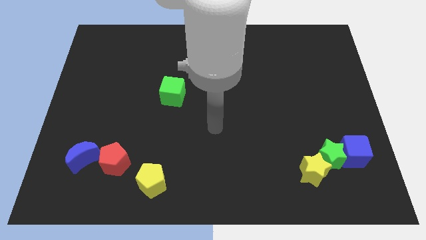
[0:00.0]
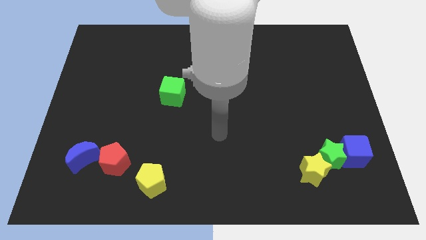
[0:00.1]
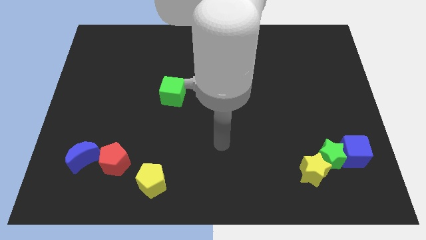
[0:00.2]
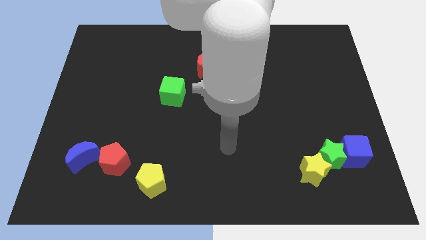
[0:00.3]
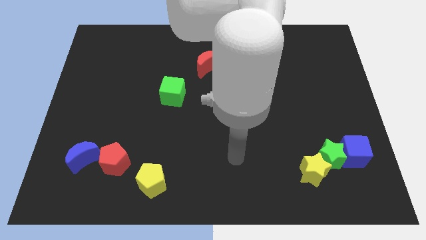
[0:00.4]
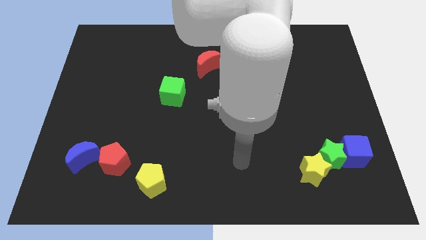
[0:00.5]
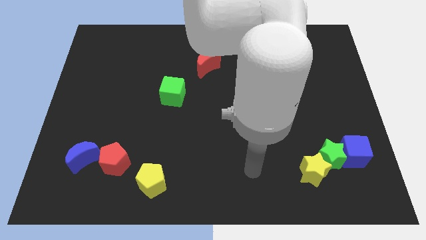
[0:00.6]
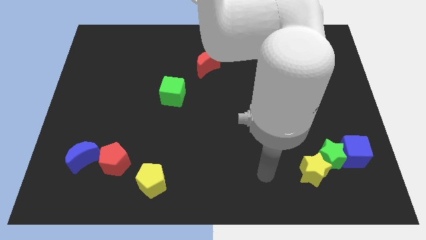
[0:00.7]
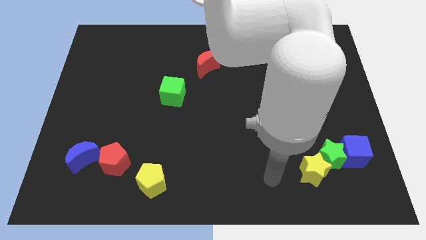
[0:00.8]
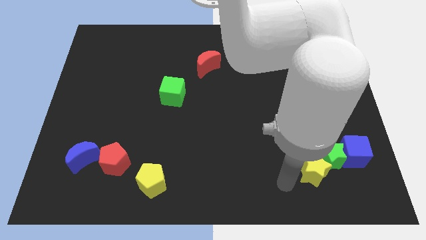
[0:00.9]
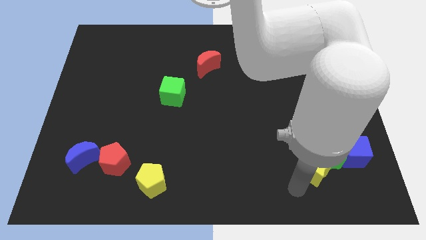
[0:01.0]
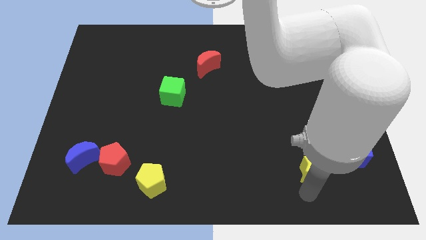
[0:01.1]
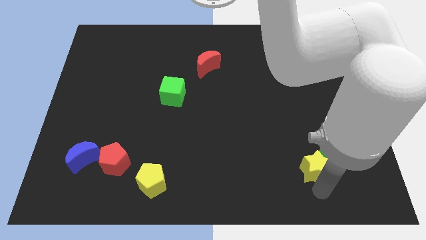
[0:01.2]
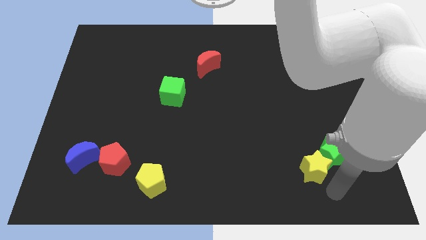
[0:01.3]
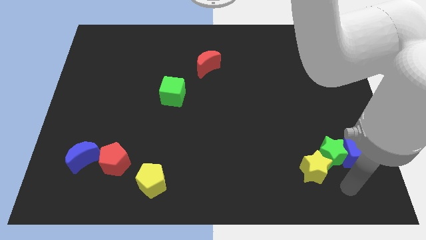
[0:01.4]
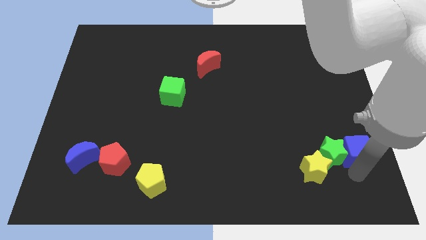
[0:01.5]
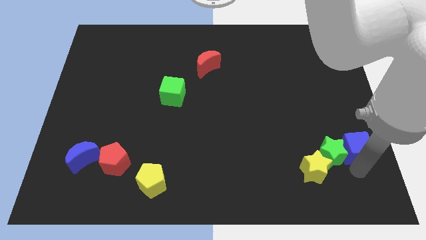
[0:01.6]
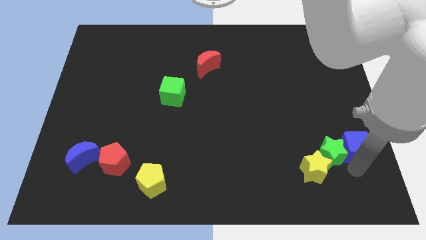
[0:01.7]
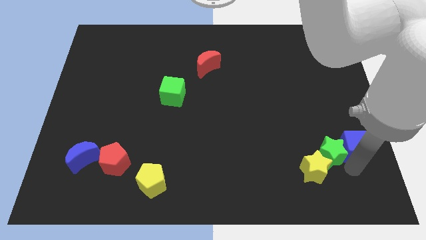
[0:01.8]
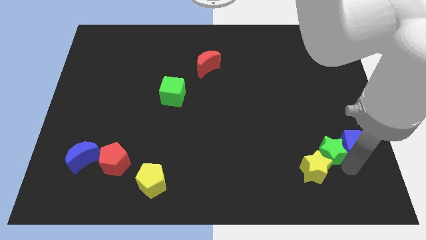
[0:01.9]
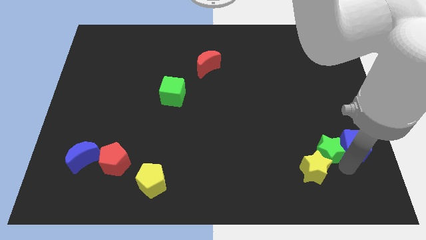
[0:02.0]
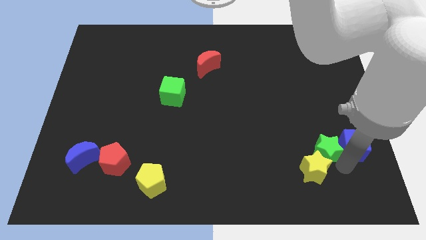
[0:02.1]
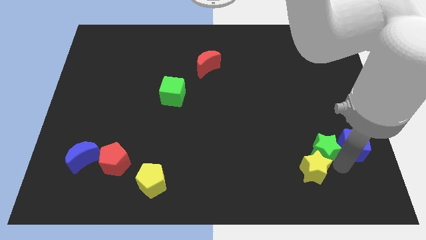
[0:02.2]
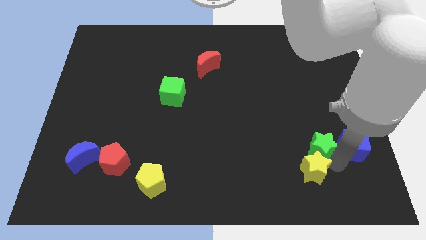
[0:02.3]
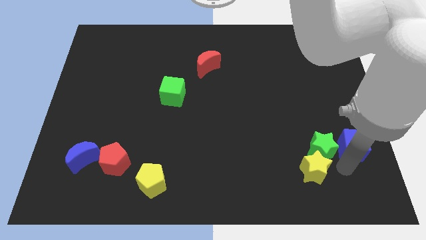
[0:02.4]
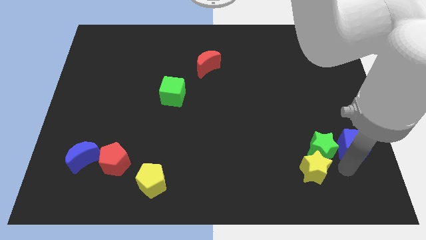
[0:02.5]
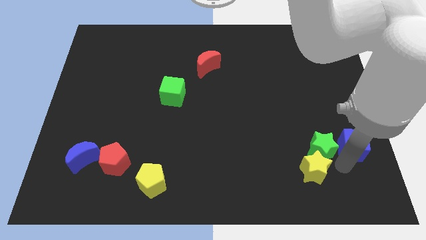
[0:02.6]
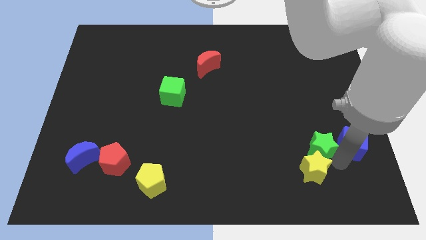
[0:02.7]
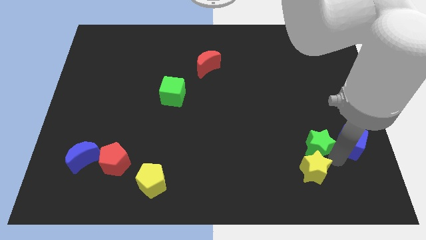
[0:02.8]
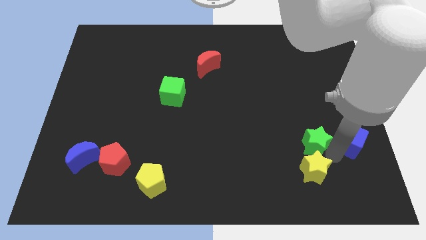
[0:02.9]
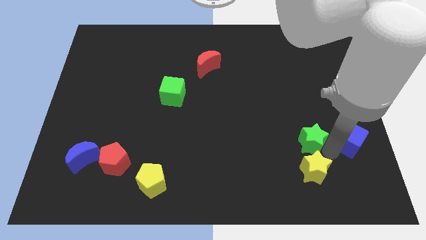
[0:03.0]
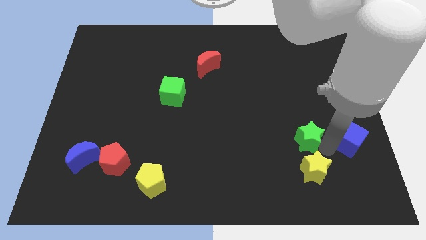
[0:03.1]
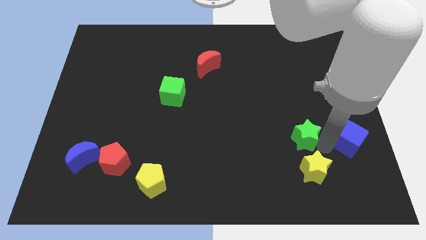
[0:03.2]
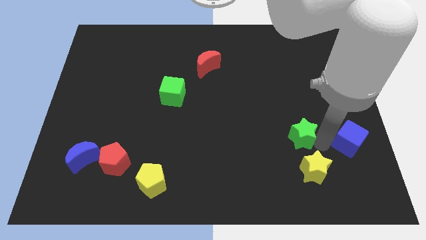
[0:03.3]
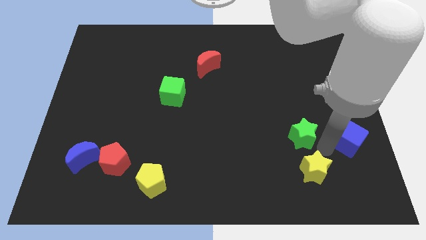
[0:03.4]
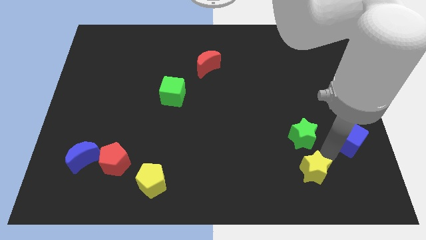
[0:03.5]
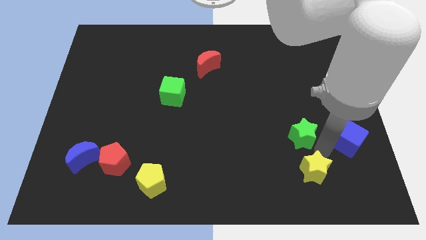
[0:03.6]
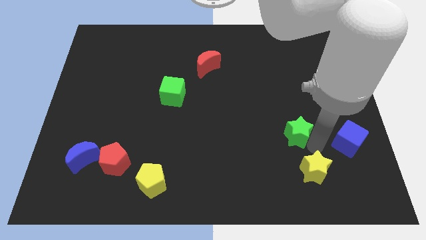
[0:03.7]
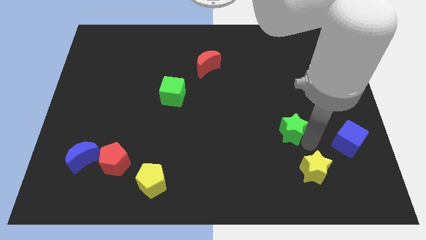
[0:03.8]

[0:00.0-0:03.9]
separate the green star from the yellow star and blue cube

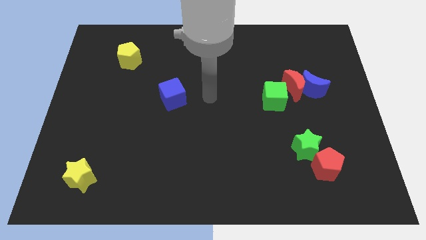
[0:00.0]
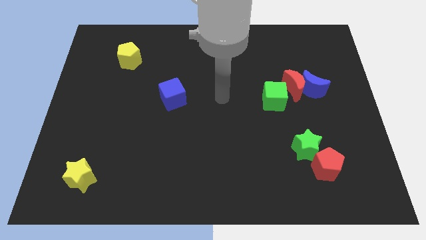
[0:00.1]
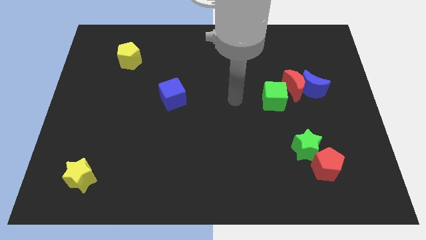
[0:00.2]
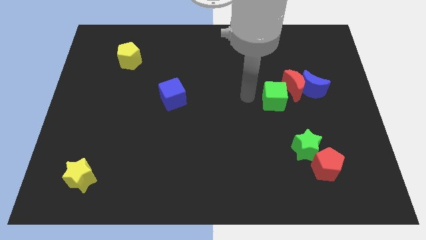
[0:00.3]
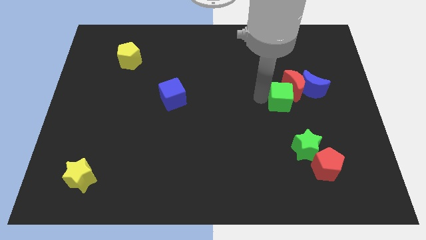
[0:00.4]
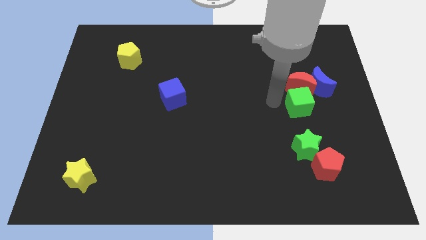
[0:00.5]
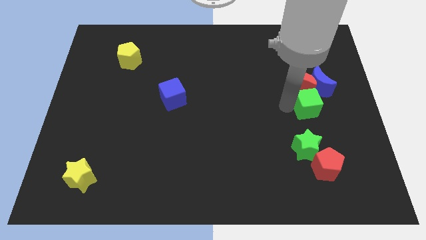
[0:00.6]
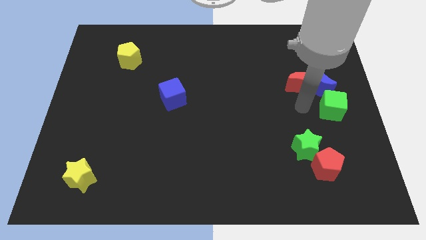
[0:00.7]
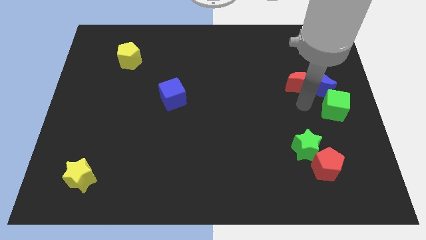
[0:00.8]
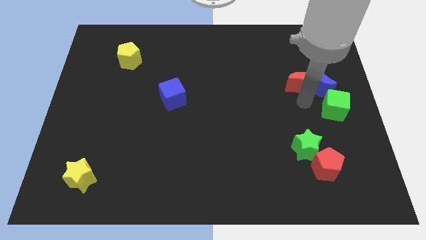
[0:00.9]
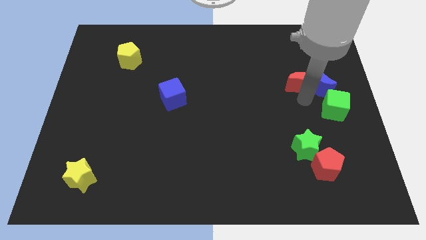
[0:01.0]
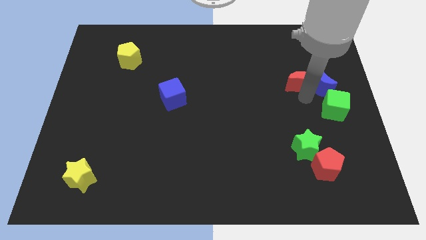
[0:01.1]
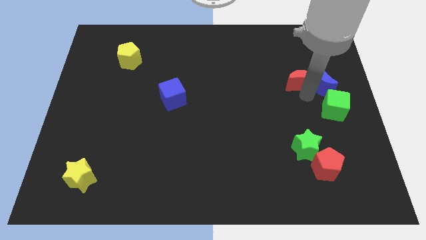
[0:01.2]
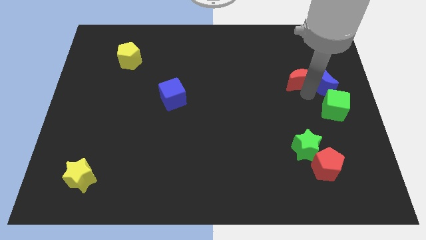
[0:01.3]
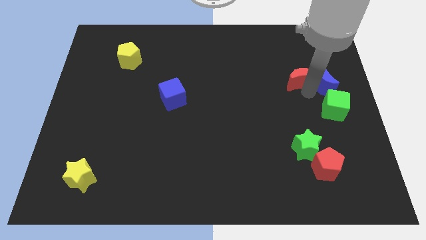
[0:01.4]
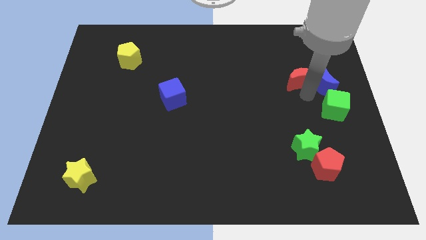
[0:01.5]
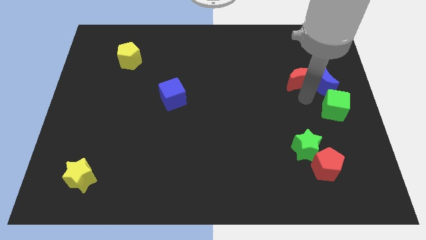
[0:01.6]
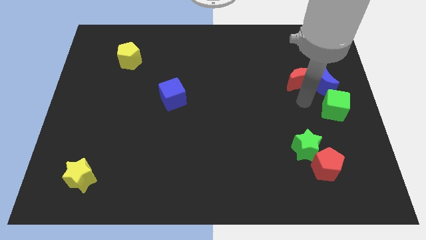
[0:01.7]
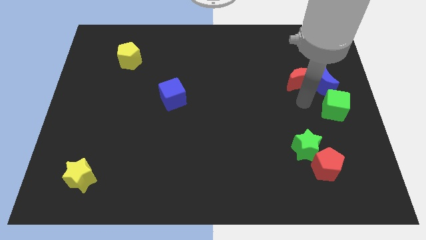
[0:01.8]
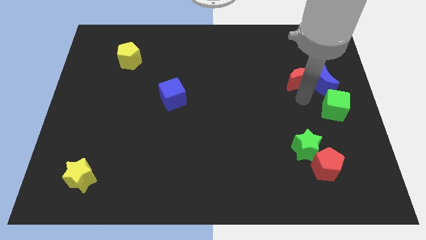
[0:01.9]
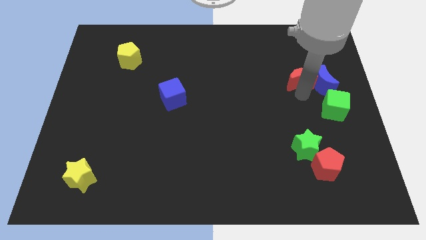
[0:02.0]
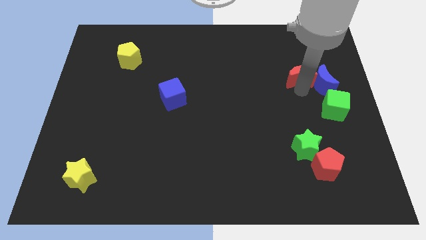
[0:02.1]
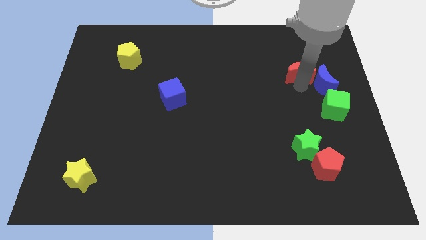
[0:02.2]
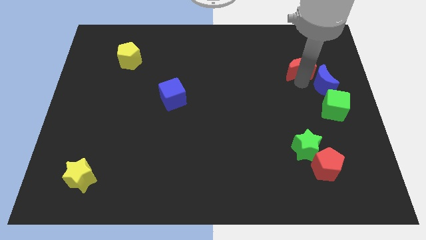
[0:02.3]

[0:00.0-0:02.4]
separate the red moon from the blue moon and green cube

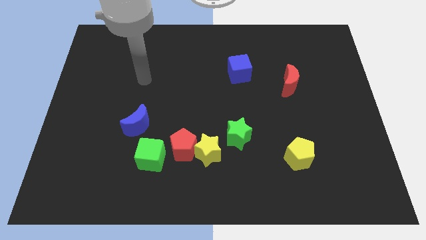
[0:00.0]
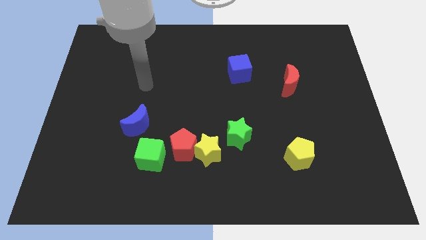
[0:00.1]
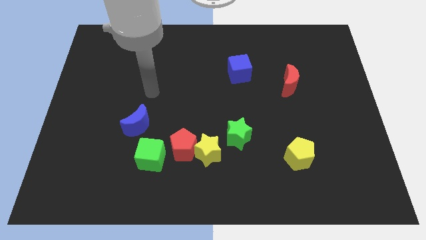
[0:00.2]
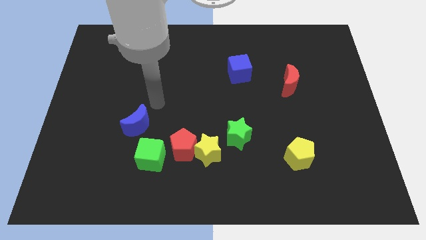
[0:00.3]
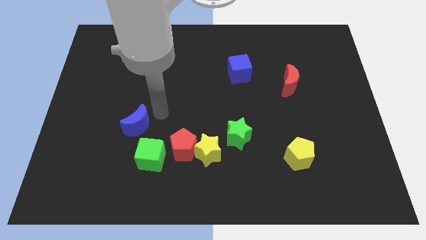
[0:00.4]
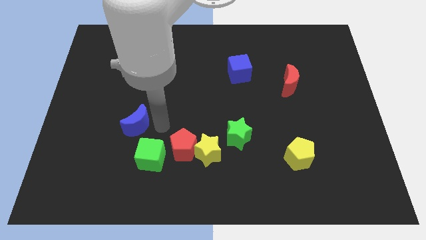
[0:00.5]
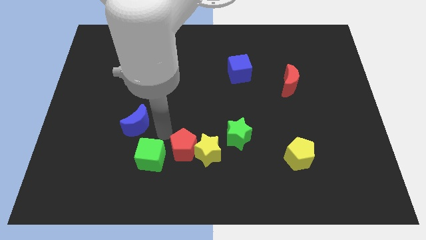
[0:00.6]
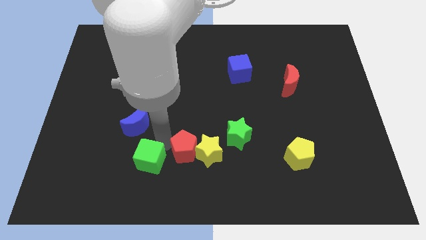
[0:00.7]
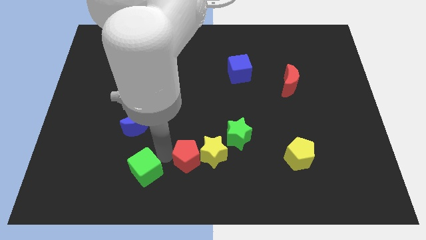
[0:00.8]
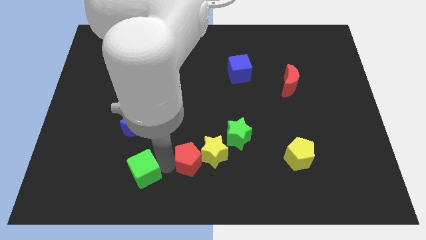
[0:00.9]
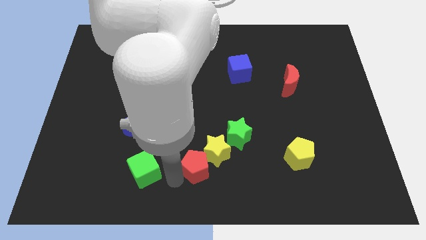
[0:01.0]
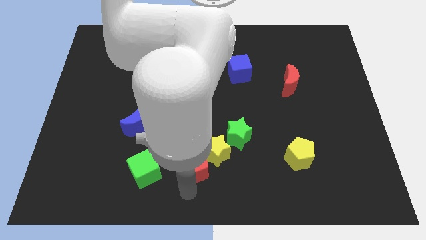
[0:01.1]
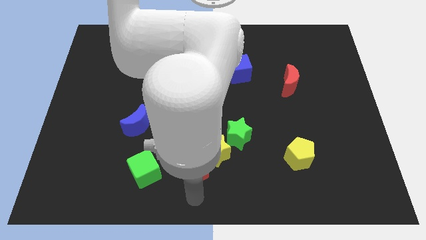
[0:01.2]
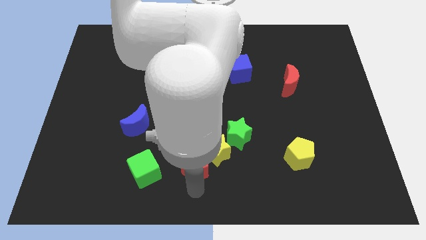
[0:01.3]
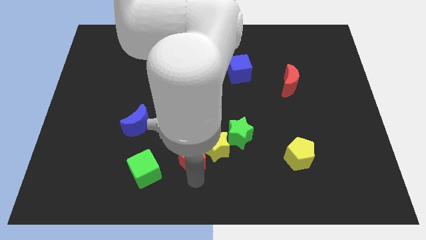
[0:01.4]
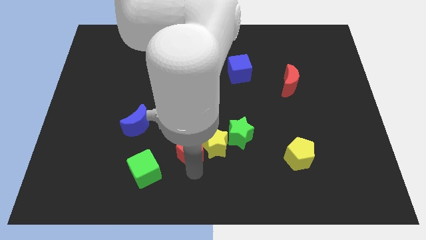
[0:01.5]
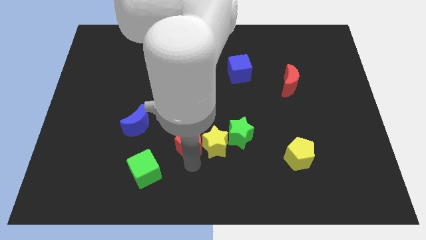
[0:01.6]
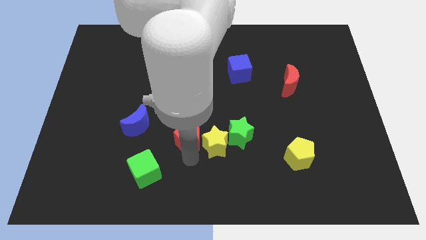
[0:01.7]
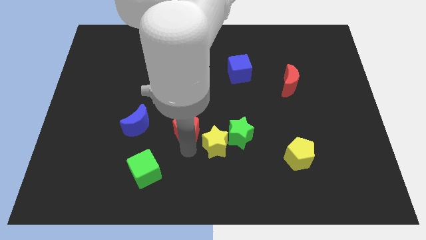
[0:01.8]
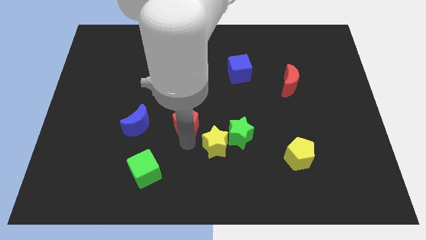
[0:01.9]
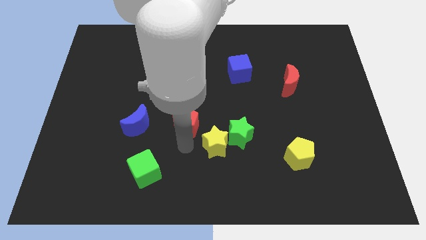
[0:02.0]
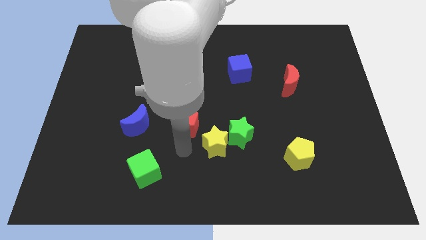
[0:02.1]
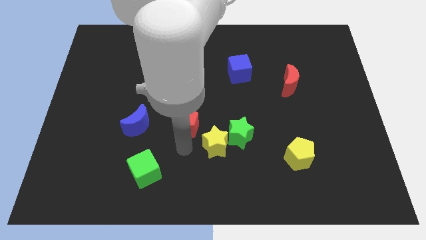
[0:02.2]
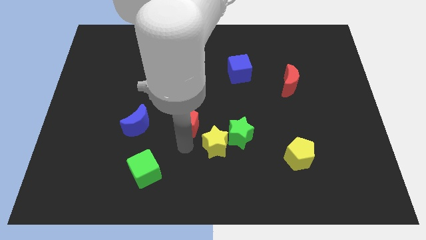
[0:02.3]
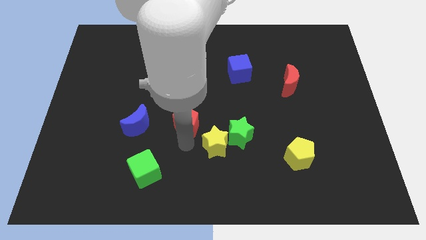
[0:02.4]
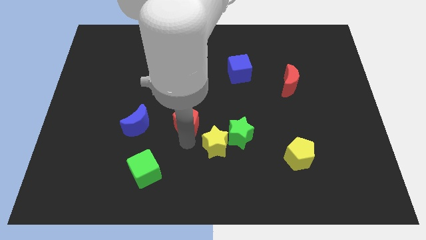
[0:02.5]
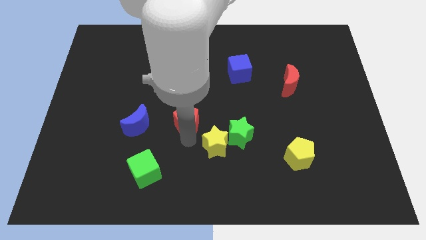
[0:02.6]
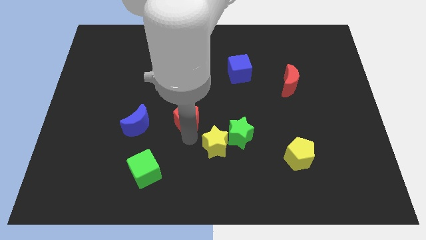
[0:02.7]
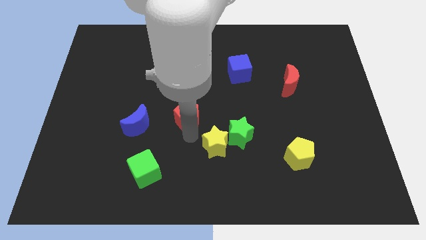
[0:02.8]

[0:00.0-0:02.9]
separate the red pentagon from the yellow star and green cube

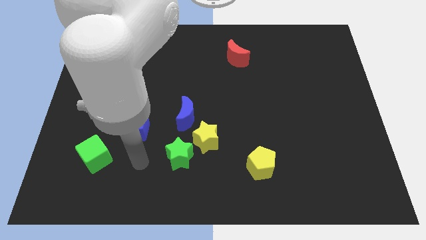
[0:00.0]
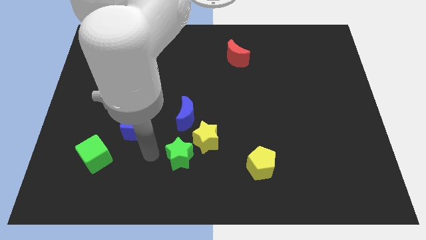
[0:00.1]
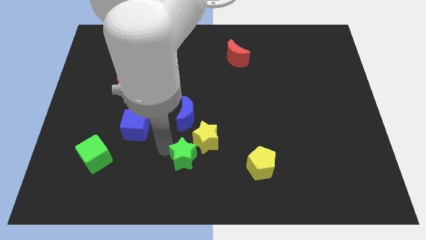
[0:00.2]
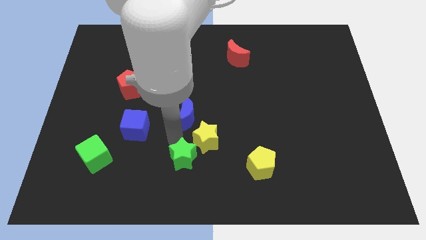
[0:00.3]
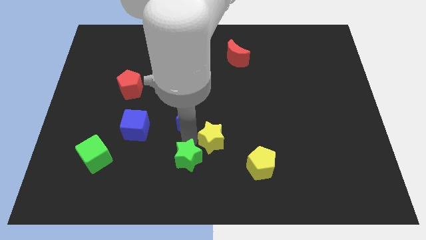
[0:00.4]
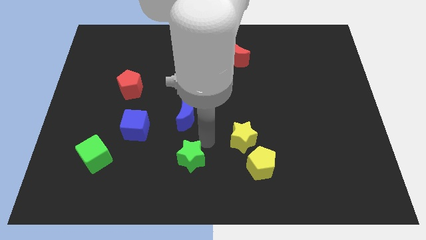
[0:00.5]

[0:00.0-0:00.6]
separate the green star from the yellow star
